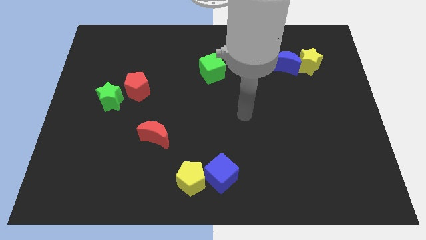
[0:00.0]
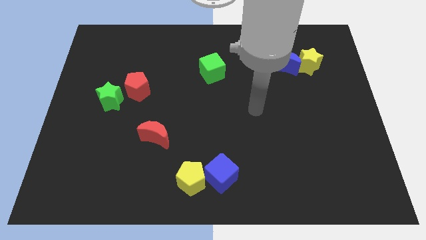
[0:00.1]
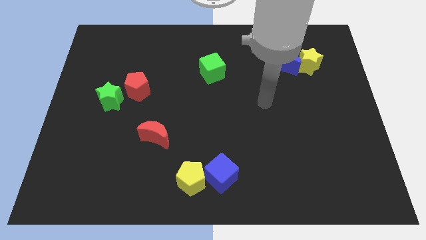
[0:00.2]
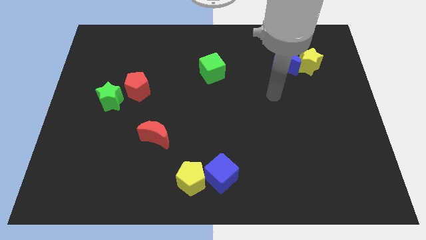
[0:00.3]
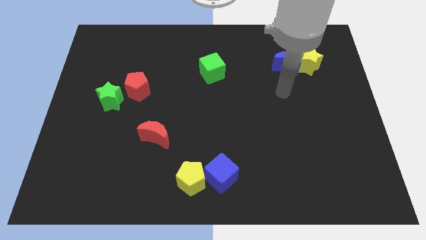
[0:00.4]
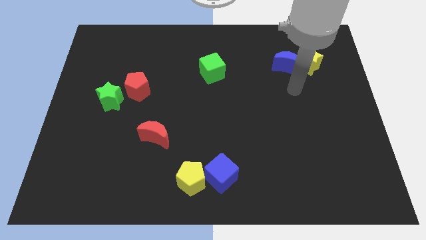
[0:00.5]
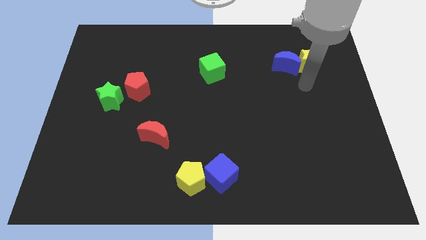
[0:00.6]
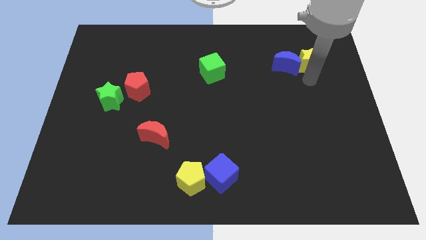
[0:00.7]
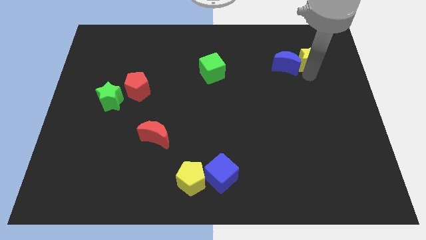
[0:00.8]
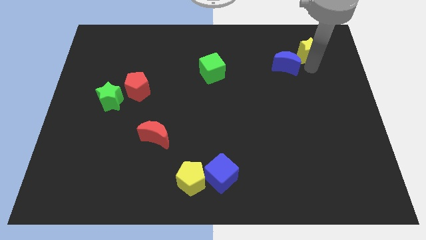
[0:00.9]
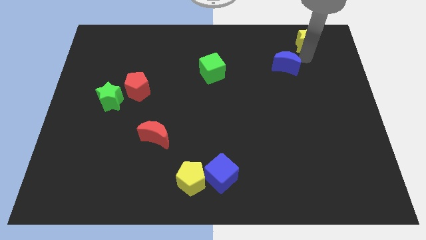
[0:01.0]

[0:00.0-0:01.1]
pull the blue moon apart from the yellow star

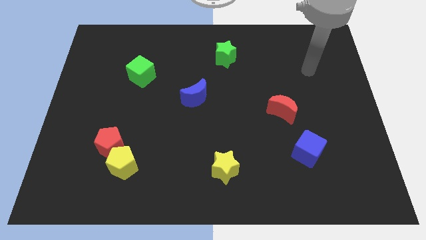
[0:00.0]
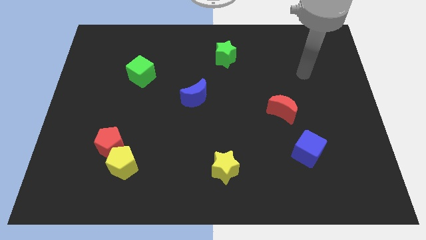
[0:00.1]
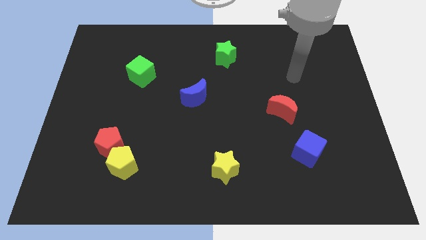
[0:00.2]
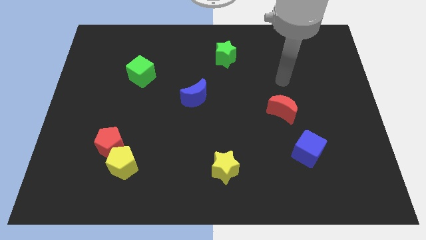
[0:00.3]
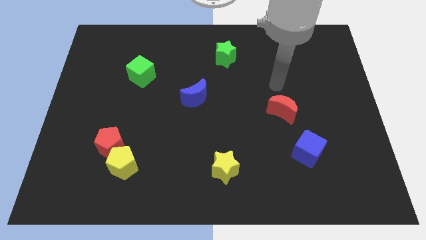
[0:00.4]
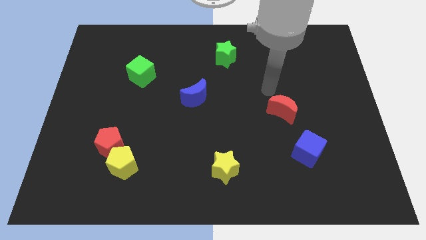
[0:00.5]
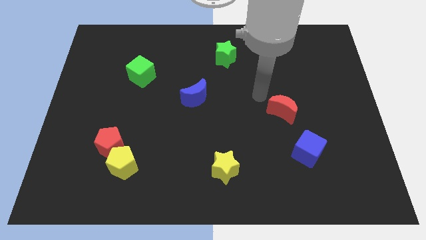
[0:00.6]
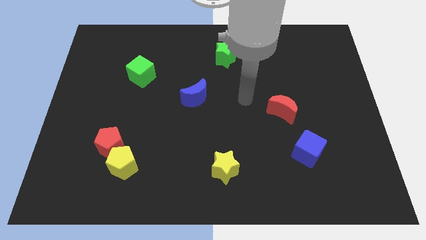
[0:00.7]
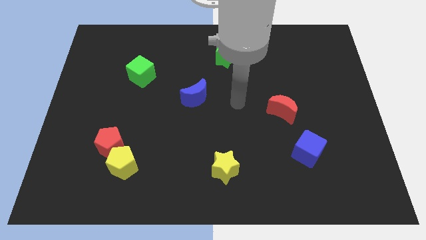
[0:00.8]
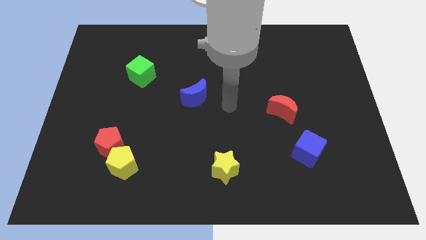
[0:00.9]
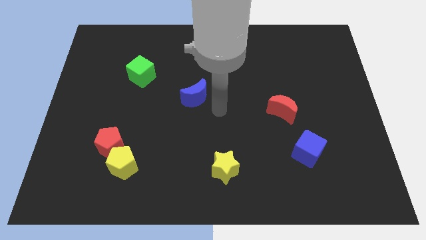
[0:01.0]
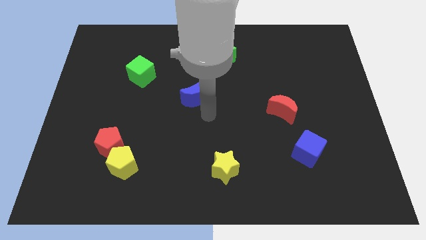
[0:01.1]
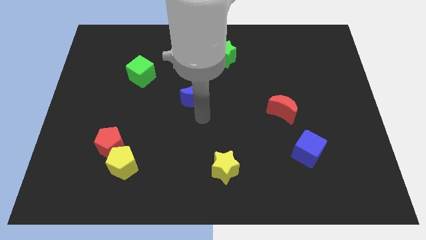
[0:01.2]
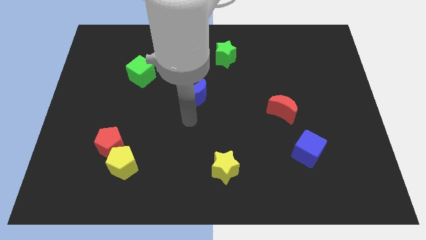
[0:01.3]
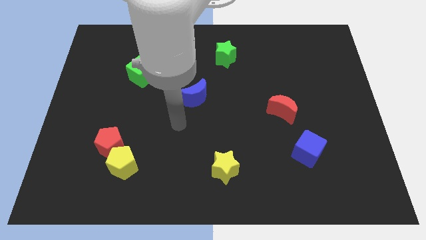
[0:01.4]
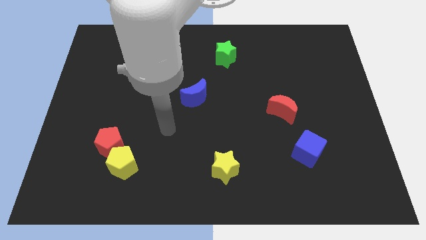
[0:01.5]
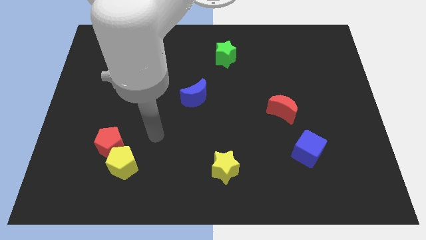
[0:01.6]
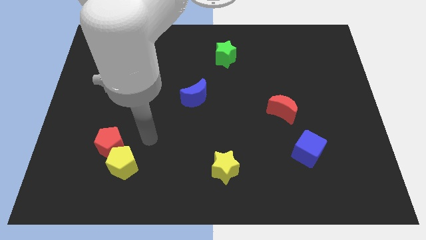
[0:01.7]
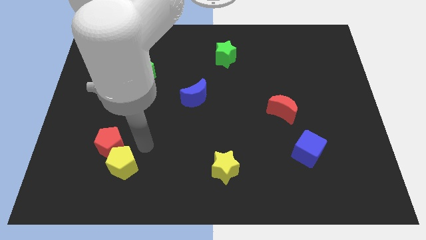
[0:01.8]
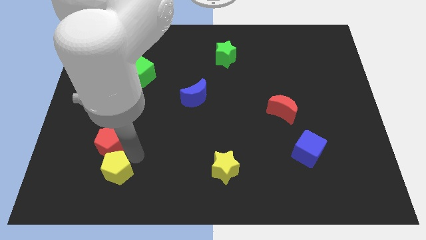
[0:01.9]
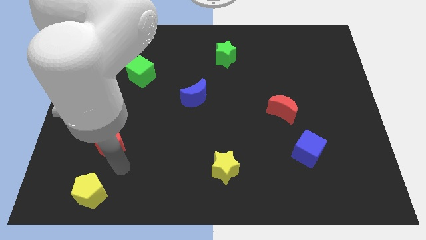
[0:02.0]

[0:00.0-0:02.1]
move the red pentagon away from the yellow pentagon

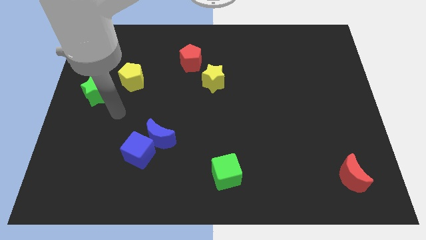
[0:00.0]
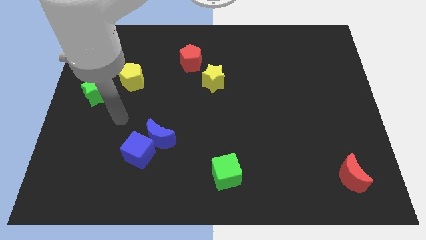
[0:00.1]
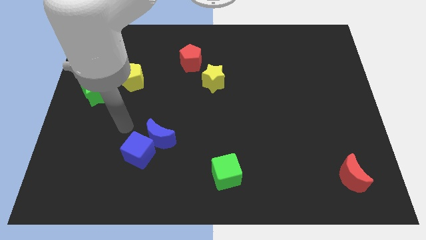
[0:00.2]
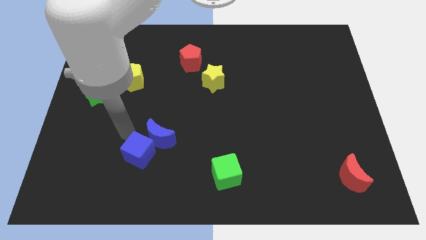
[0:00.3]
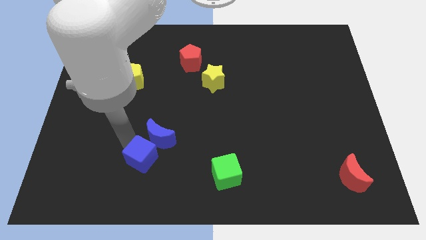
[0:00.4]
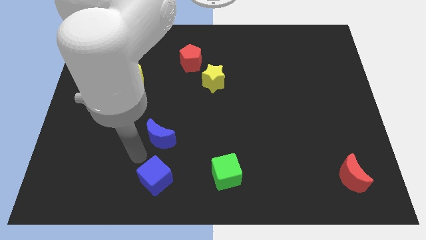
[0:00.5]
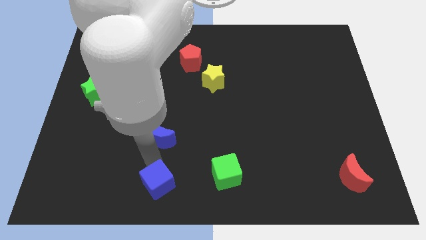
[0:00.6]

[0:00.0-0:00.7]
separate the blue moon from the blue cube

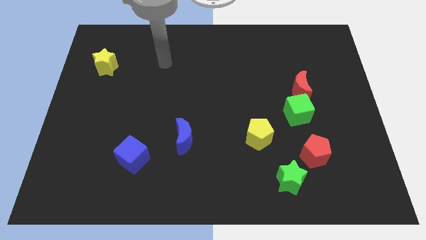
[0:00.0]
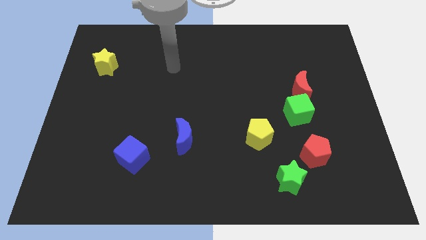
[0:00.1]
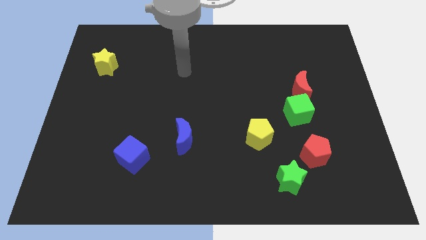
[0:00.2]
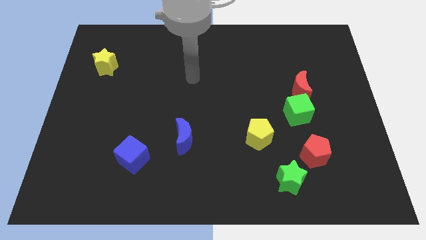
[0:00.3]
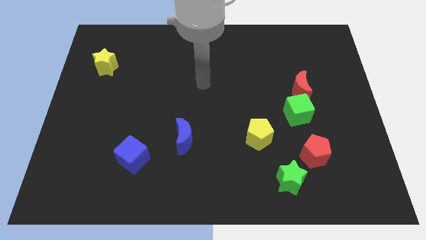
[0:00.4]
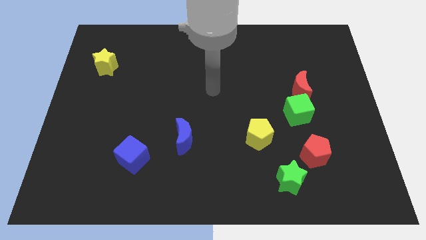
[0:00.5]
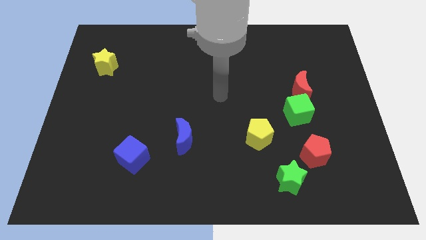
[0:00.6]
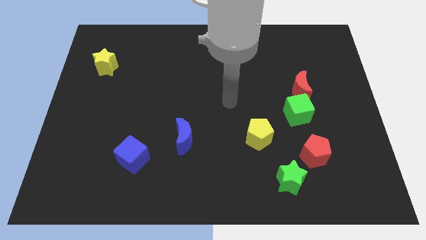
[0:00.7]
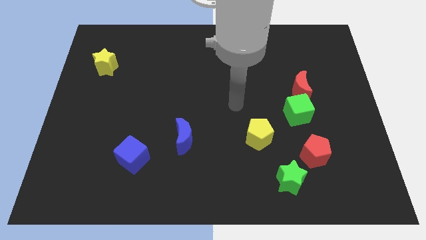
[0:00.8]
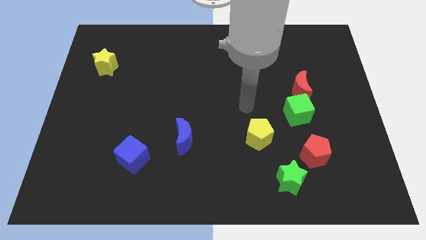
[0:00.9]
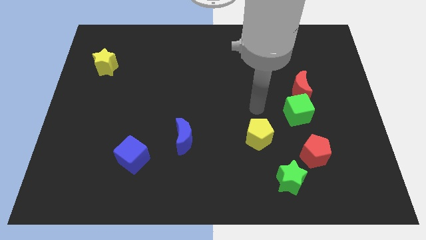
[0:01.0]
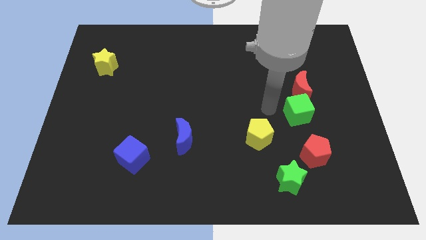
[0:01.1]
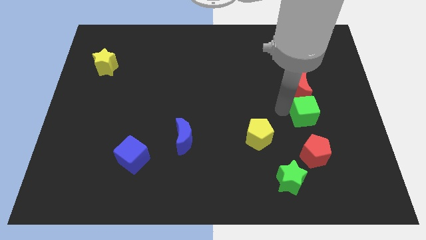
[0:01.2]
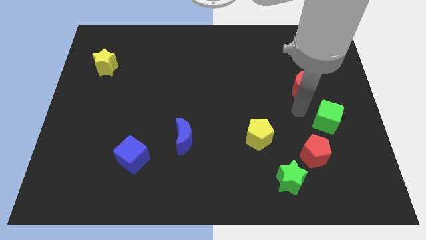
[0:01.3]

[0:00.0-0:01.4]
move the red moon away from the green cube

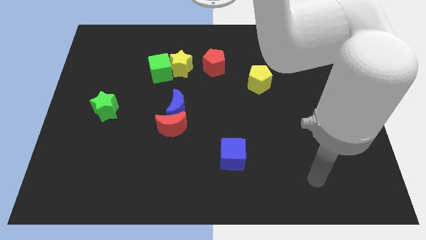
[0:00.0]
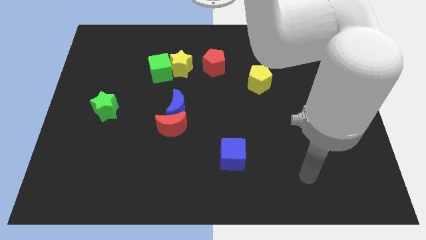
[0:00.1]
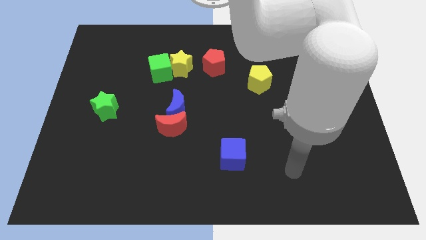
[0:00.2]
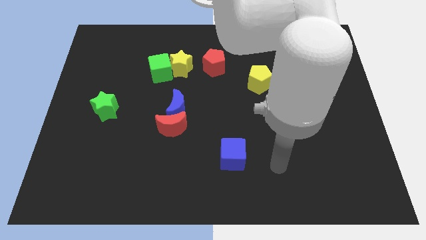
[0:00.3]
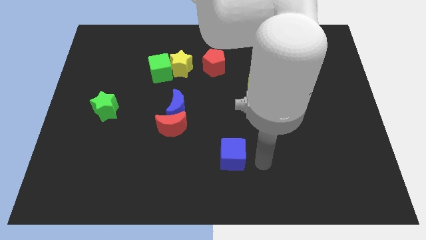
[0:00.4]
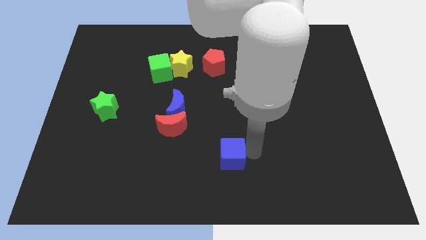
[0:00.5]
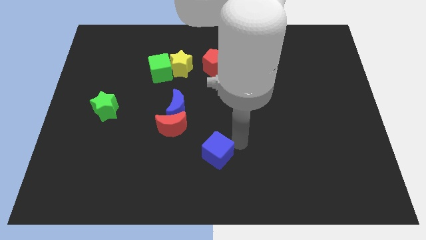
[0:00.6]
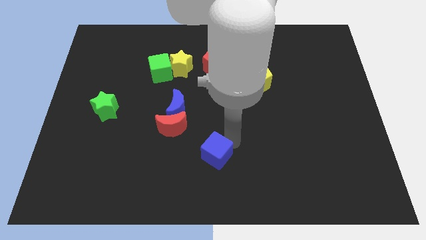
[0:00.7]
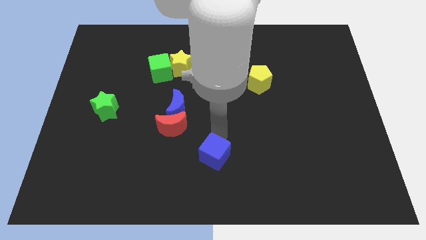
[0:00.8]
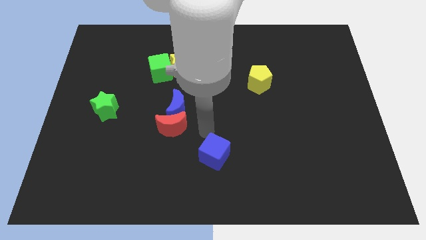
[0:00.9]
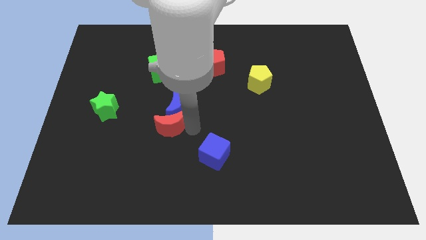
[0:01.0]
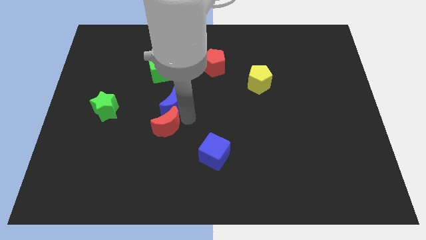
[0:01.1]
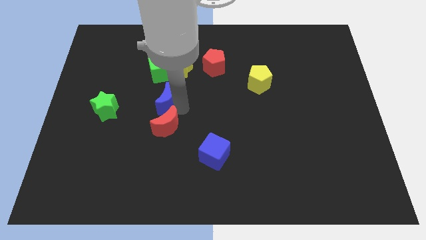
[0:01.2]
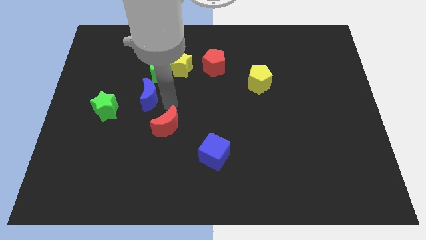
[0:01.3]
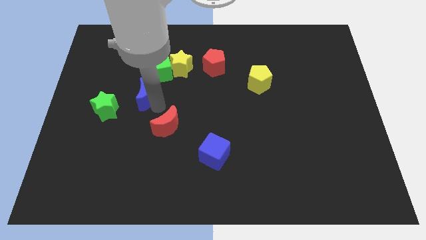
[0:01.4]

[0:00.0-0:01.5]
separate the red moon from the blue moon

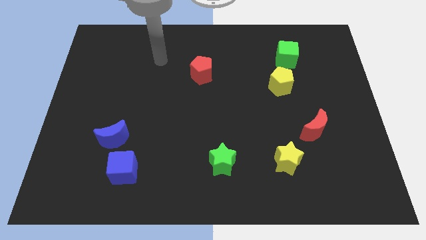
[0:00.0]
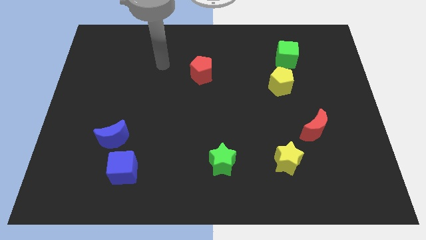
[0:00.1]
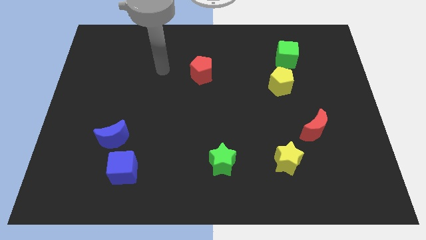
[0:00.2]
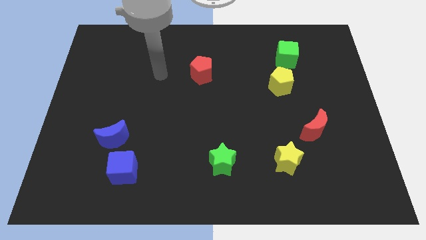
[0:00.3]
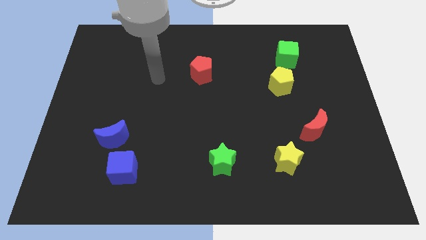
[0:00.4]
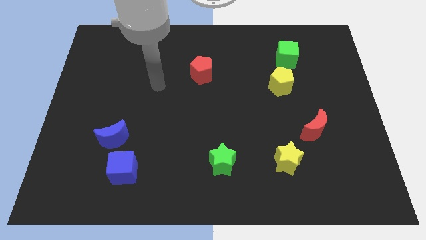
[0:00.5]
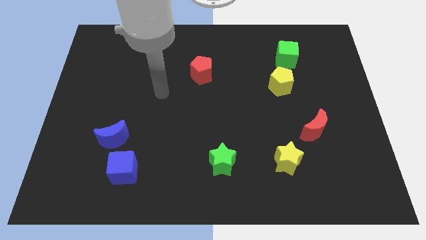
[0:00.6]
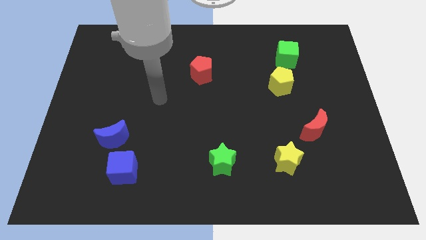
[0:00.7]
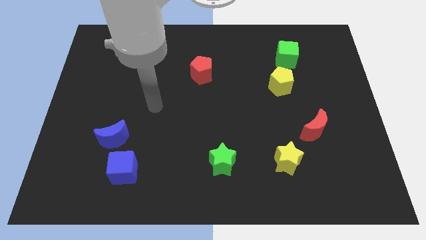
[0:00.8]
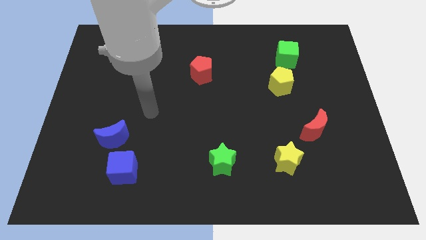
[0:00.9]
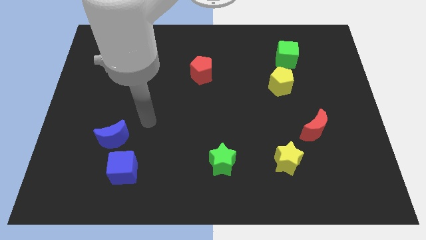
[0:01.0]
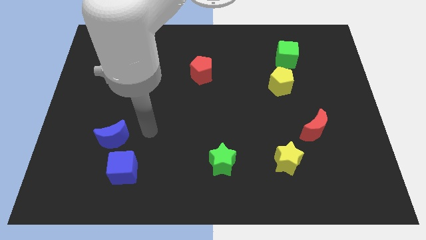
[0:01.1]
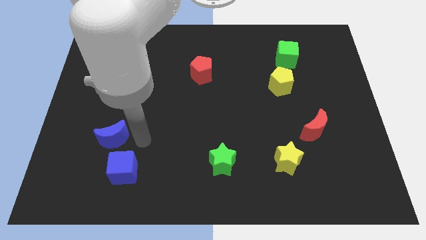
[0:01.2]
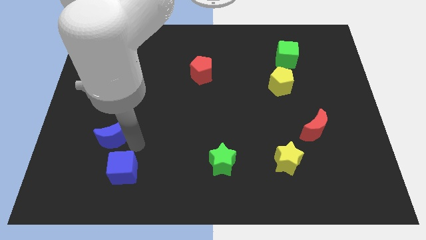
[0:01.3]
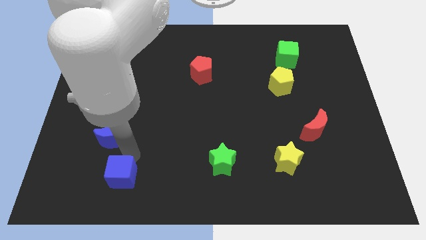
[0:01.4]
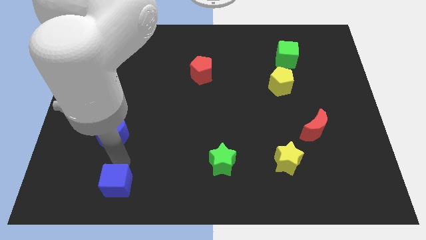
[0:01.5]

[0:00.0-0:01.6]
move the blue moon away from the blue cube

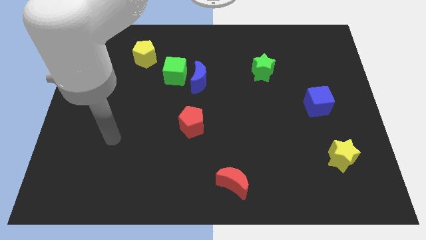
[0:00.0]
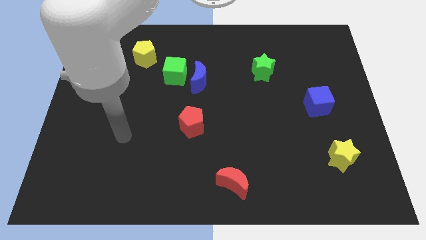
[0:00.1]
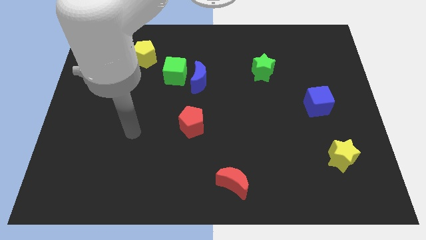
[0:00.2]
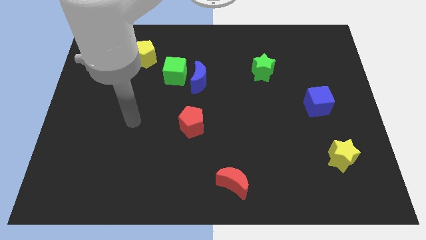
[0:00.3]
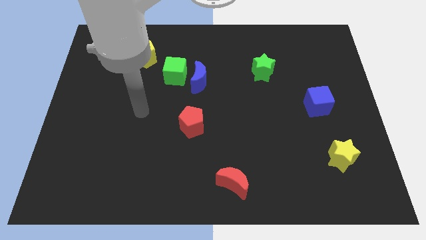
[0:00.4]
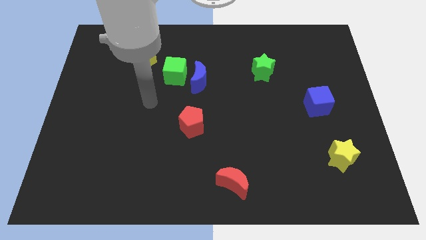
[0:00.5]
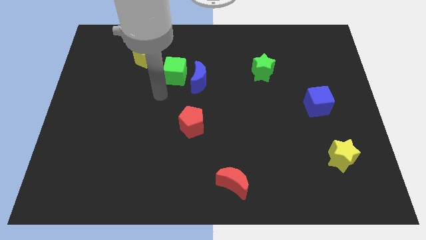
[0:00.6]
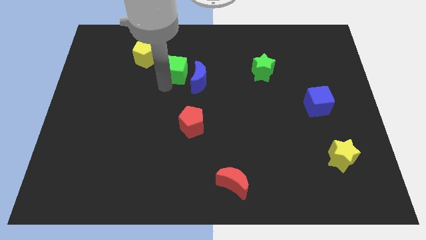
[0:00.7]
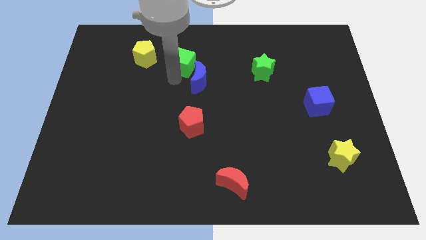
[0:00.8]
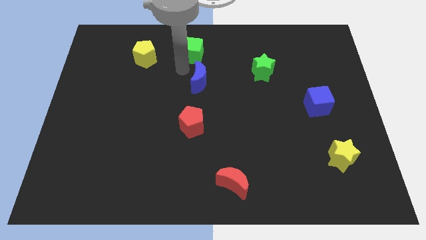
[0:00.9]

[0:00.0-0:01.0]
separate the blue moon from the green cube
